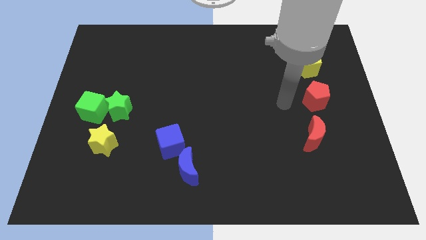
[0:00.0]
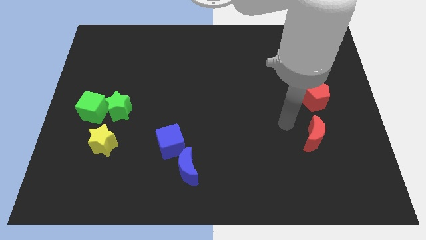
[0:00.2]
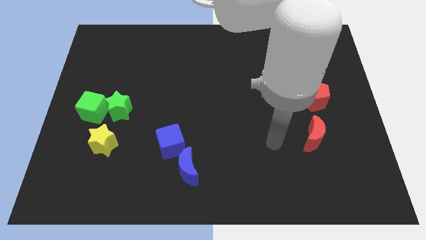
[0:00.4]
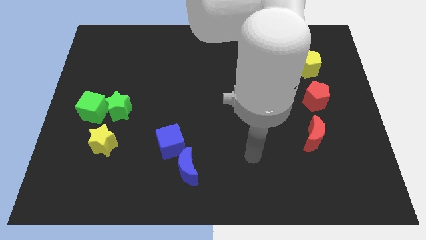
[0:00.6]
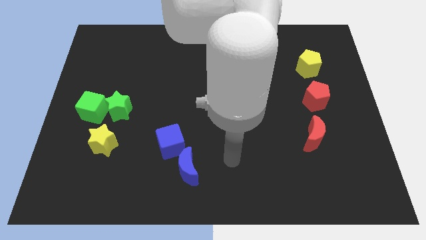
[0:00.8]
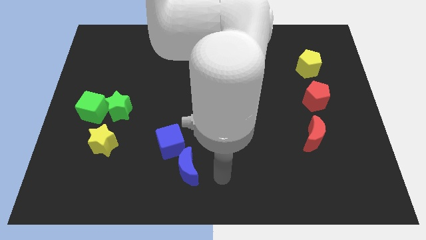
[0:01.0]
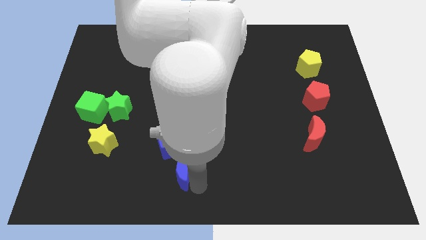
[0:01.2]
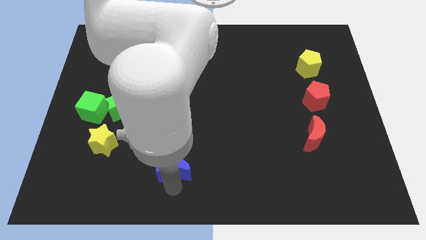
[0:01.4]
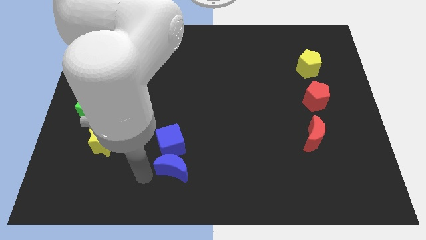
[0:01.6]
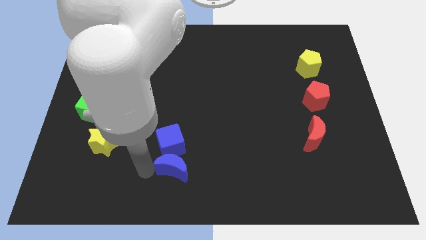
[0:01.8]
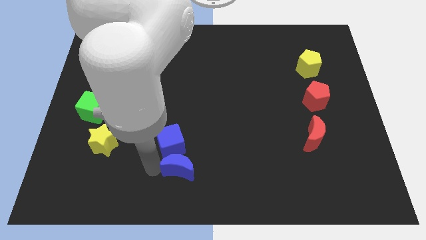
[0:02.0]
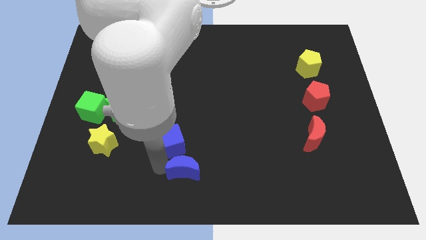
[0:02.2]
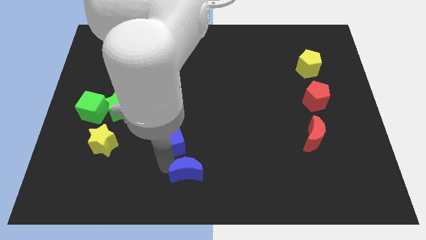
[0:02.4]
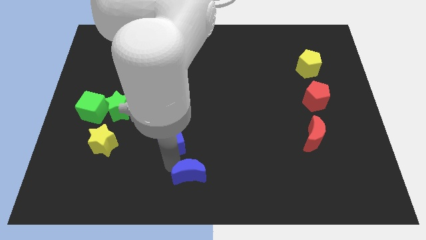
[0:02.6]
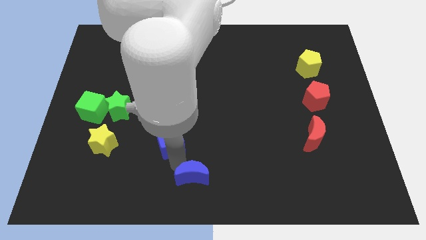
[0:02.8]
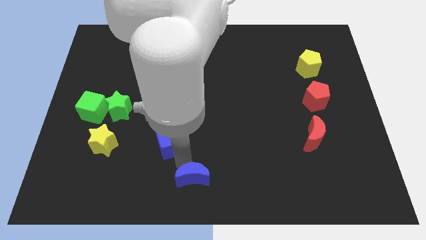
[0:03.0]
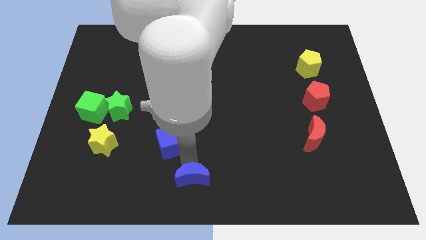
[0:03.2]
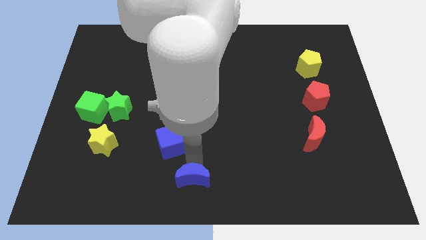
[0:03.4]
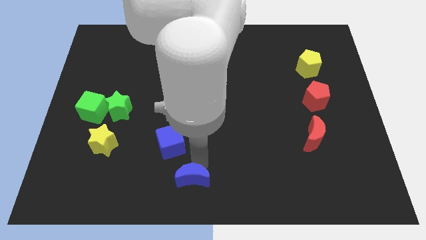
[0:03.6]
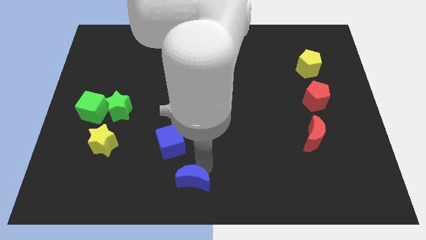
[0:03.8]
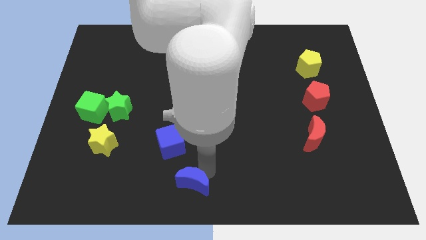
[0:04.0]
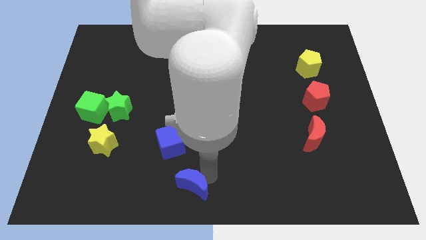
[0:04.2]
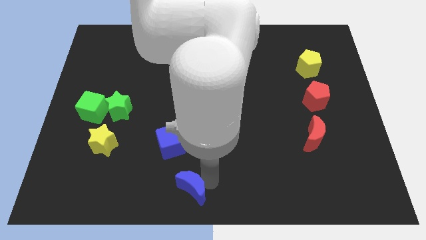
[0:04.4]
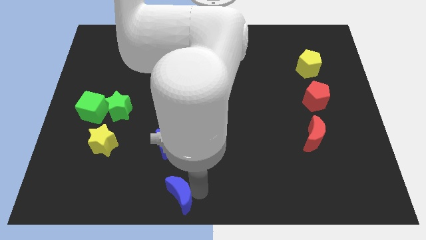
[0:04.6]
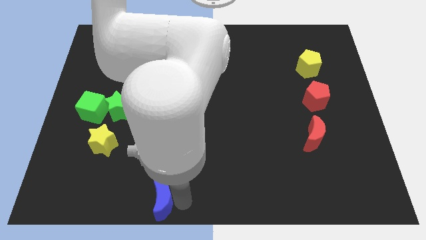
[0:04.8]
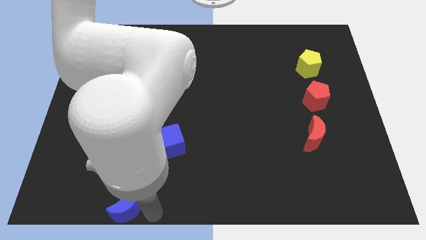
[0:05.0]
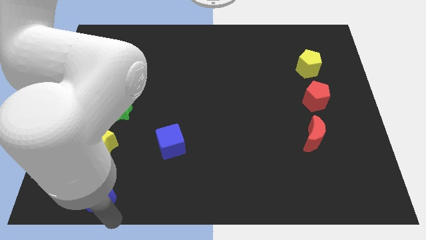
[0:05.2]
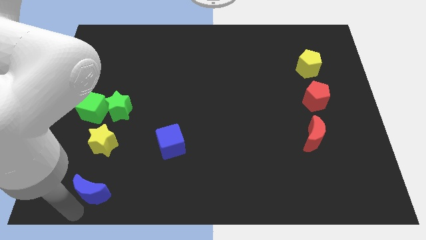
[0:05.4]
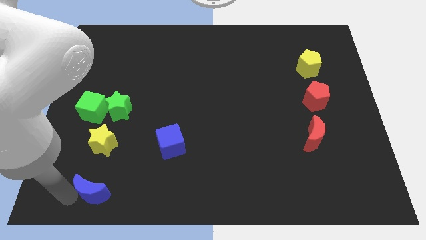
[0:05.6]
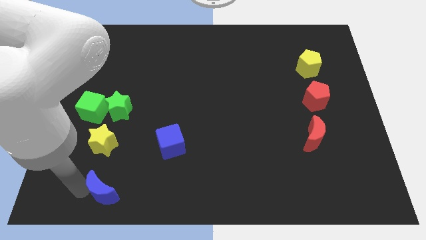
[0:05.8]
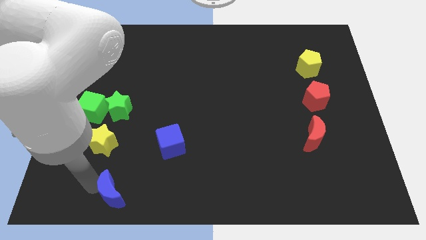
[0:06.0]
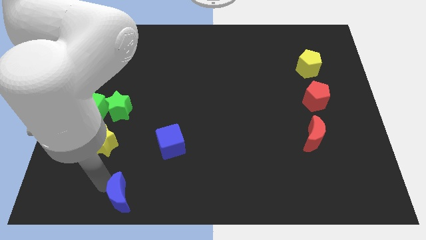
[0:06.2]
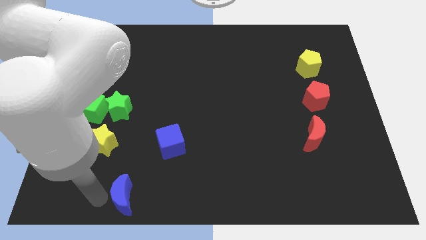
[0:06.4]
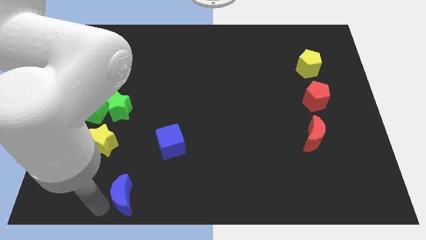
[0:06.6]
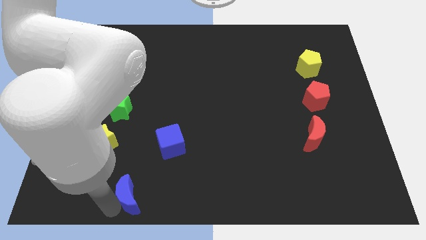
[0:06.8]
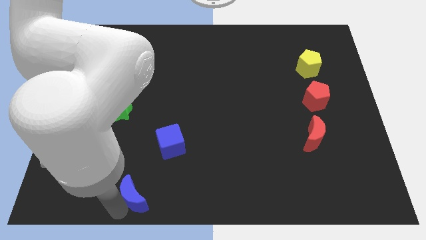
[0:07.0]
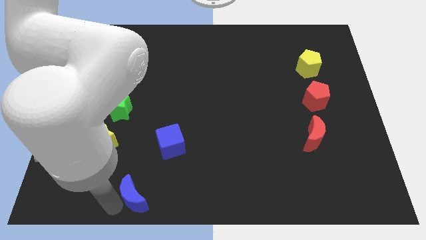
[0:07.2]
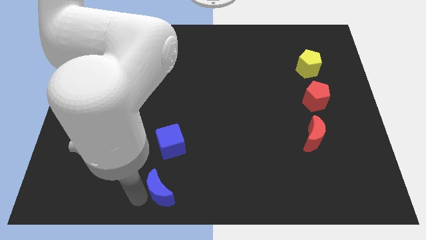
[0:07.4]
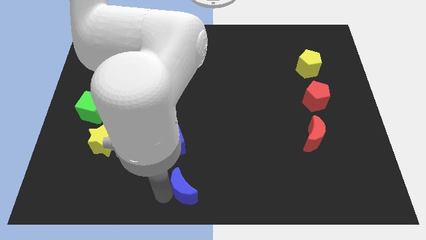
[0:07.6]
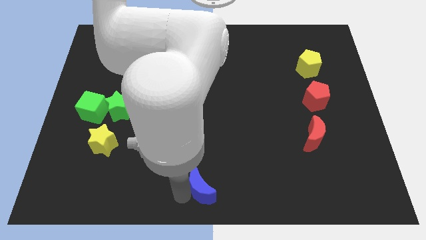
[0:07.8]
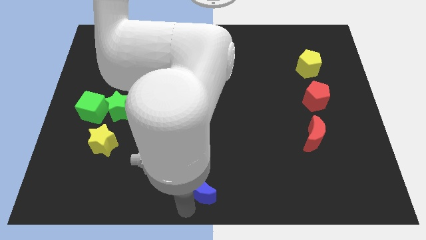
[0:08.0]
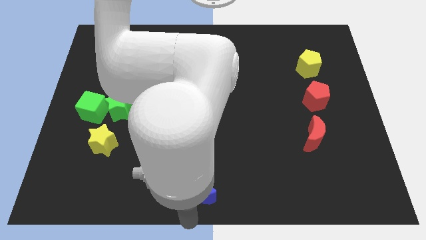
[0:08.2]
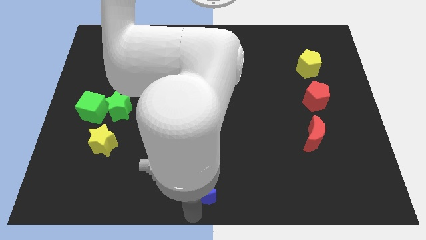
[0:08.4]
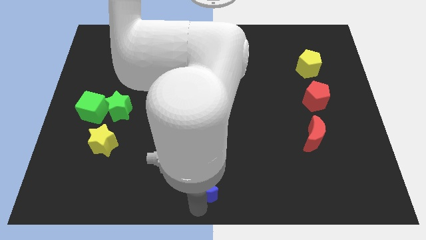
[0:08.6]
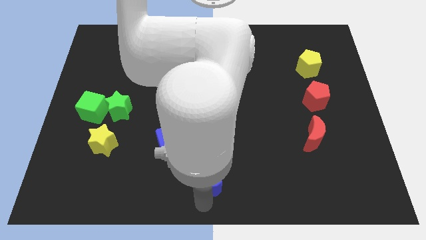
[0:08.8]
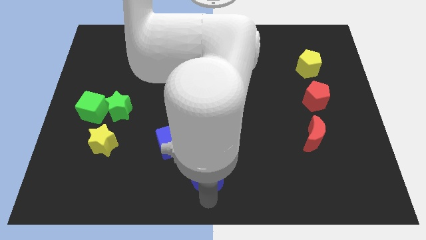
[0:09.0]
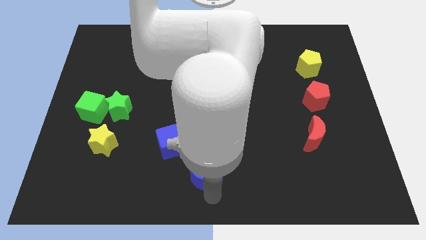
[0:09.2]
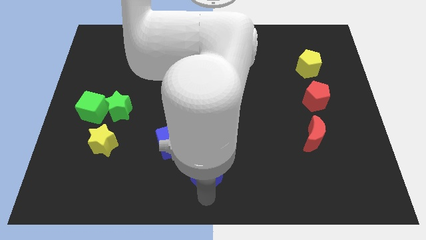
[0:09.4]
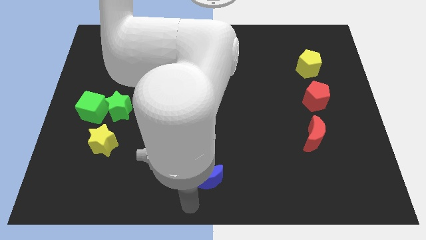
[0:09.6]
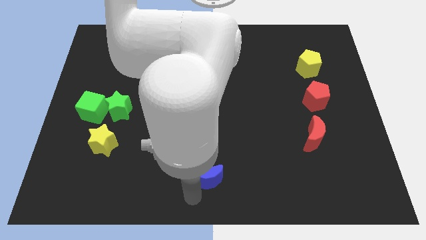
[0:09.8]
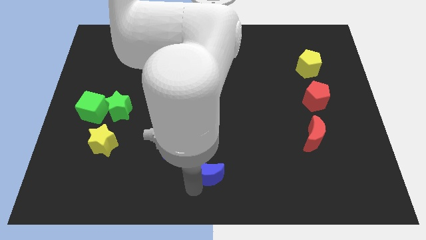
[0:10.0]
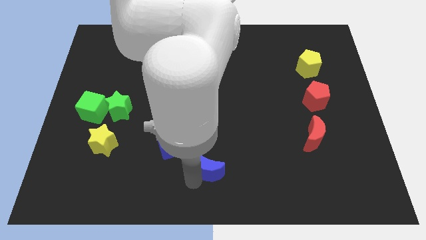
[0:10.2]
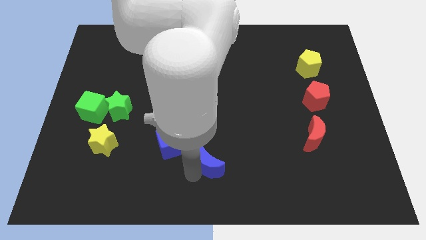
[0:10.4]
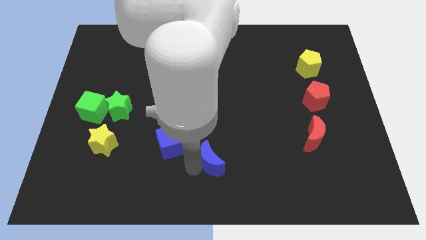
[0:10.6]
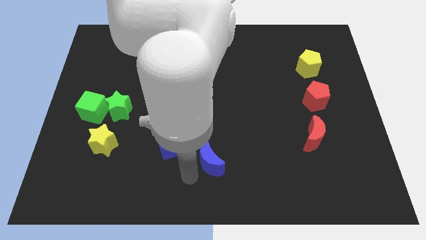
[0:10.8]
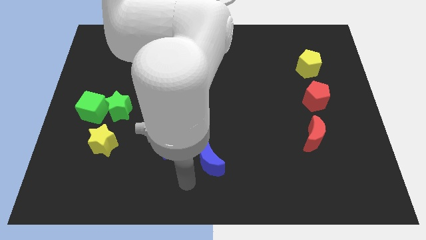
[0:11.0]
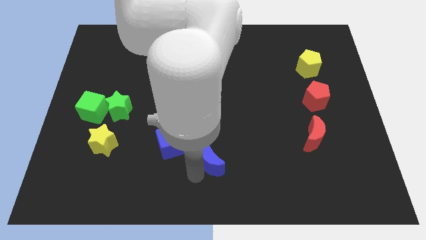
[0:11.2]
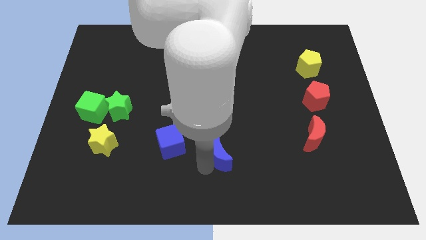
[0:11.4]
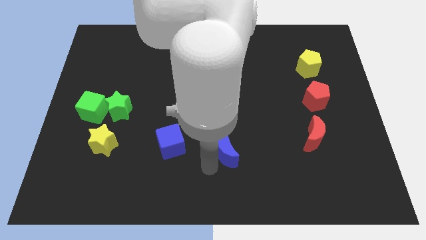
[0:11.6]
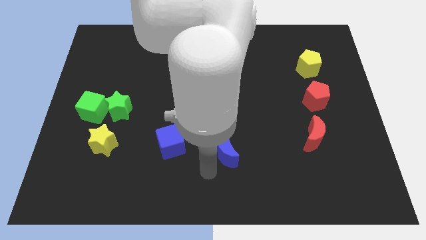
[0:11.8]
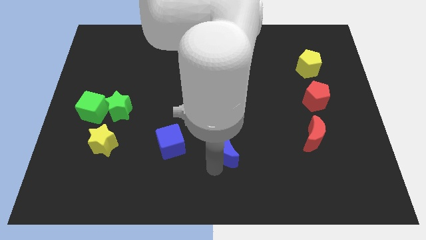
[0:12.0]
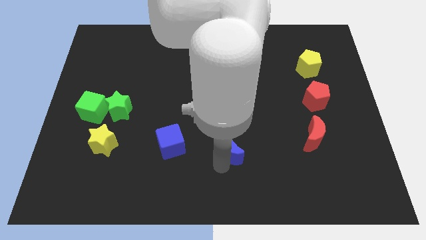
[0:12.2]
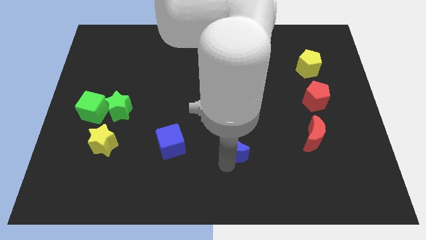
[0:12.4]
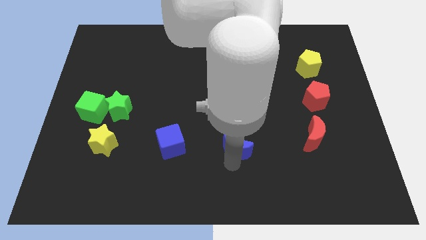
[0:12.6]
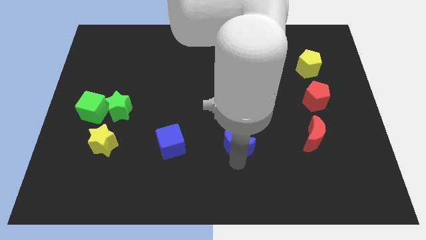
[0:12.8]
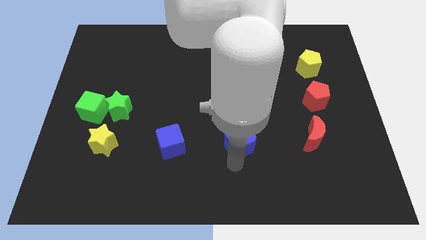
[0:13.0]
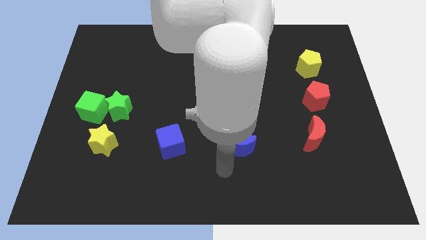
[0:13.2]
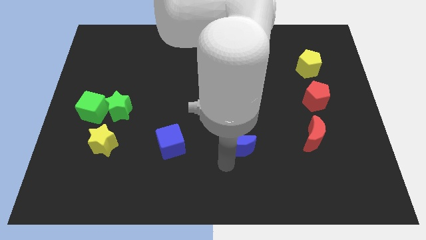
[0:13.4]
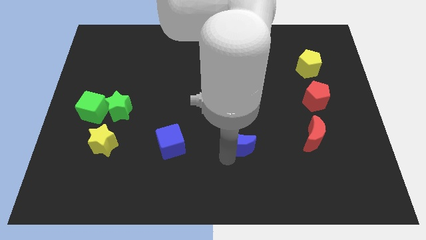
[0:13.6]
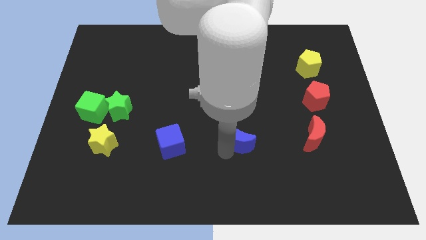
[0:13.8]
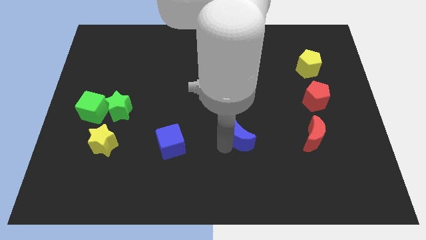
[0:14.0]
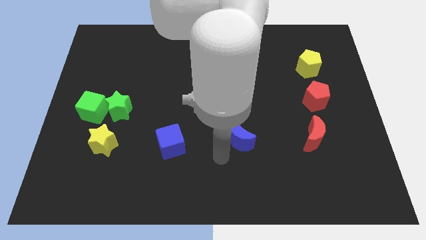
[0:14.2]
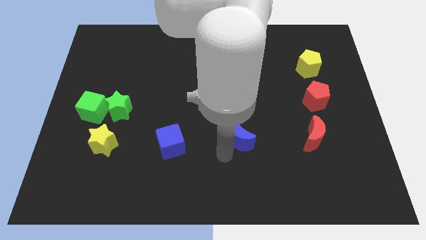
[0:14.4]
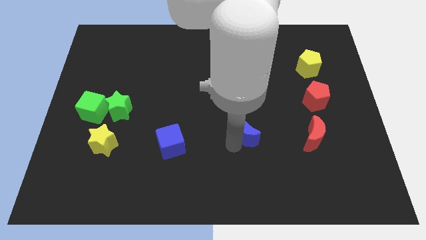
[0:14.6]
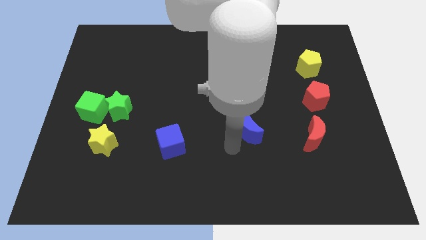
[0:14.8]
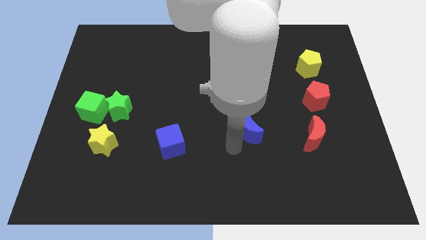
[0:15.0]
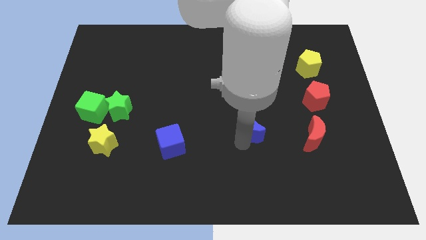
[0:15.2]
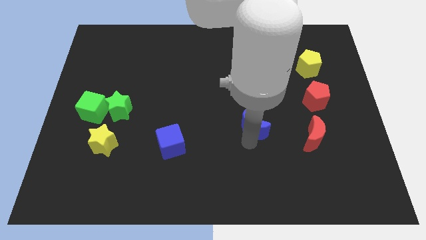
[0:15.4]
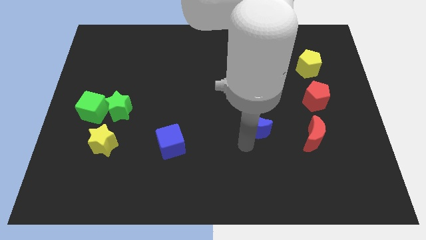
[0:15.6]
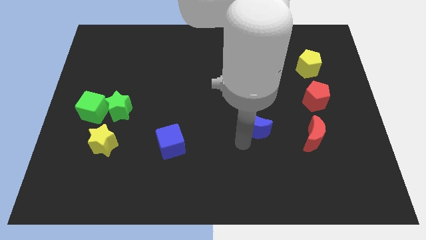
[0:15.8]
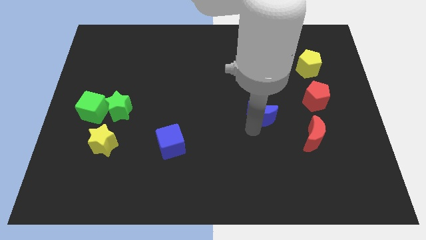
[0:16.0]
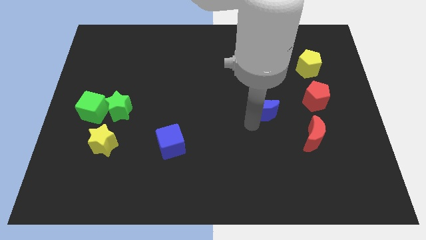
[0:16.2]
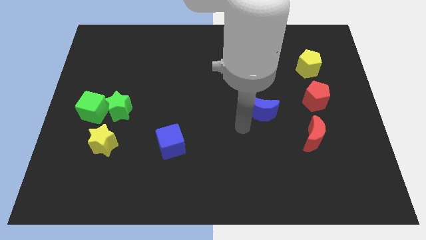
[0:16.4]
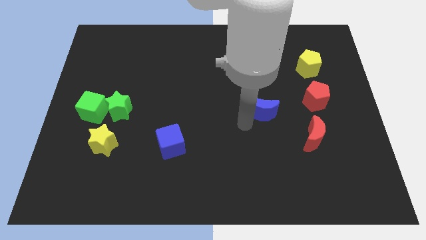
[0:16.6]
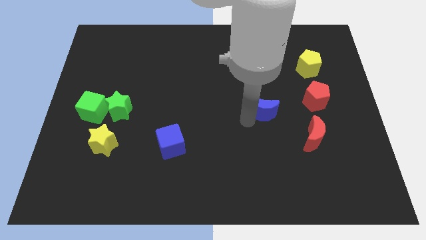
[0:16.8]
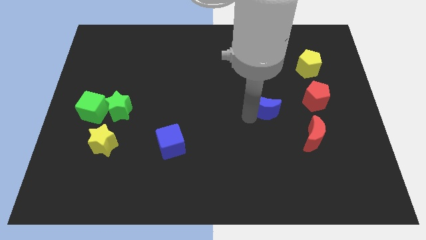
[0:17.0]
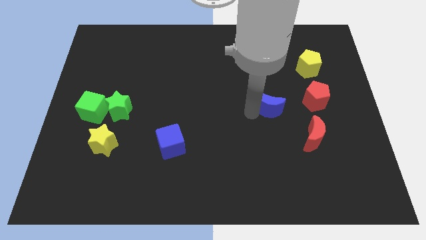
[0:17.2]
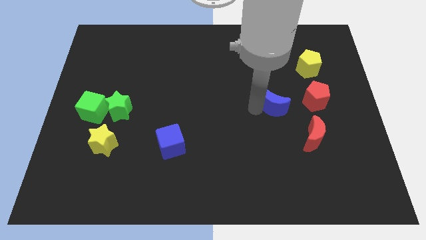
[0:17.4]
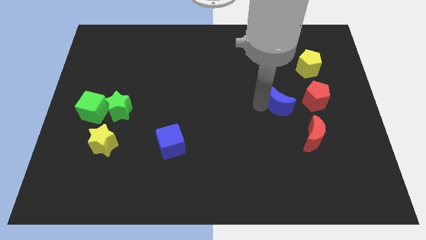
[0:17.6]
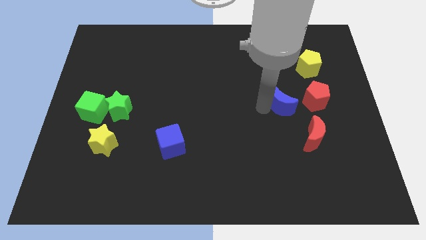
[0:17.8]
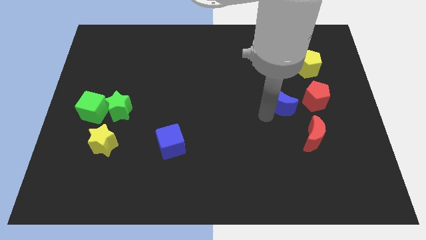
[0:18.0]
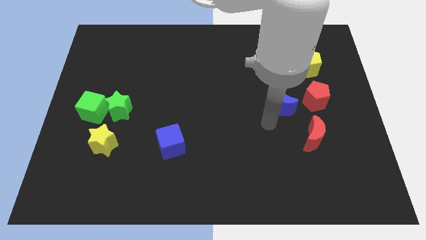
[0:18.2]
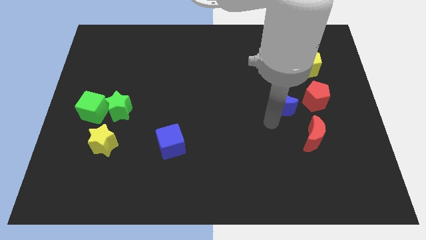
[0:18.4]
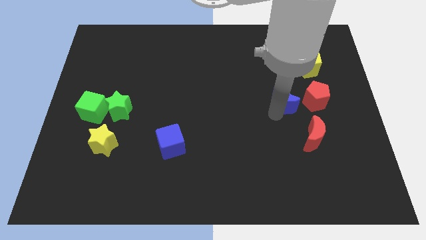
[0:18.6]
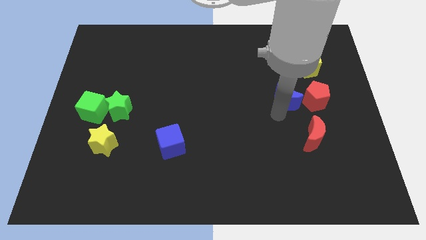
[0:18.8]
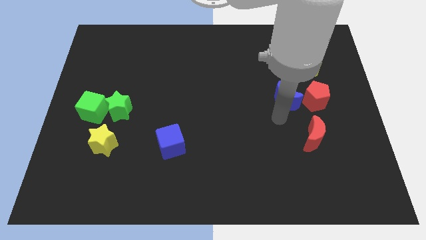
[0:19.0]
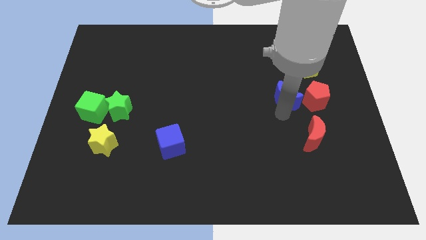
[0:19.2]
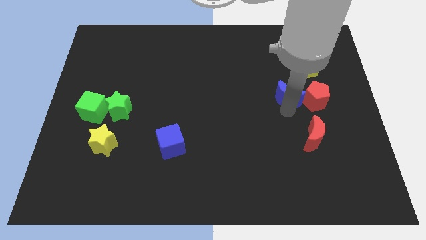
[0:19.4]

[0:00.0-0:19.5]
slide the blue moon to the top left side of the red pentagon
